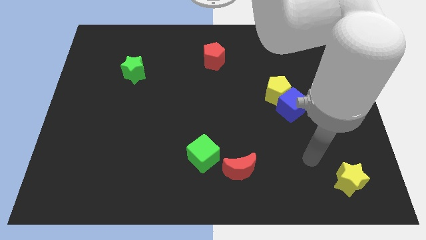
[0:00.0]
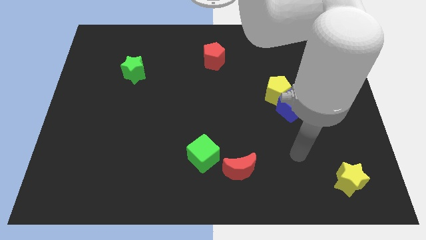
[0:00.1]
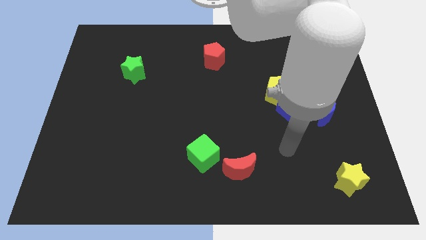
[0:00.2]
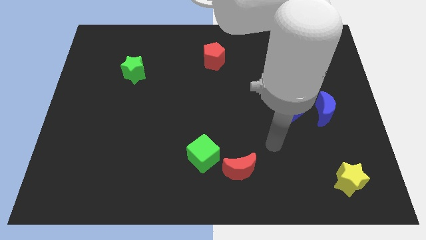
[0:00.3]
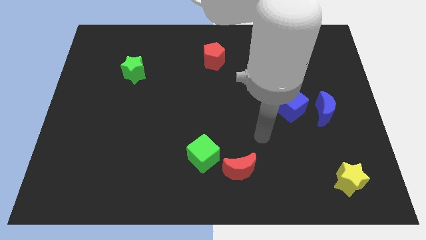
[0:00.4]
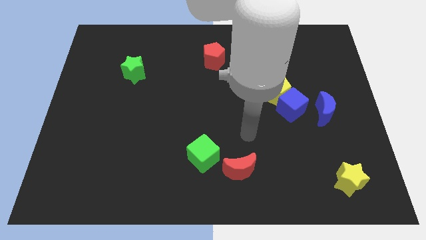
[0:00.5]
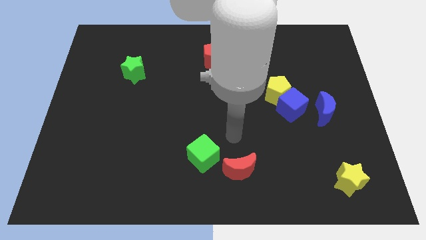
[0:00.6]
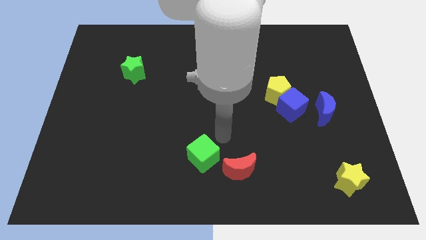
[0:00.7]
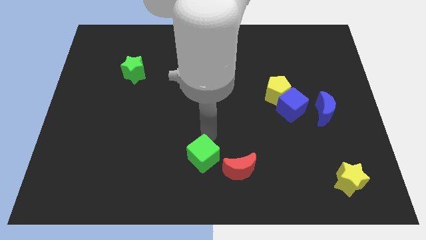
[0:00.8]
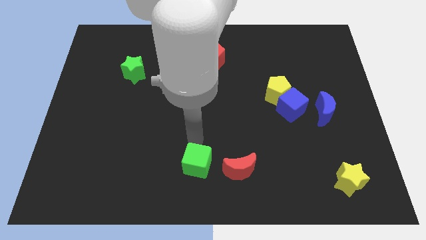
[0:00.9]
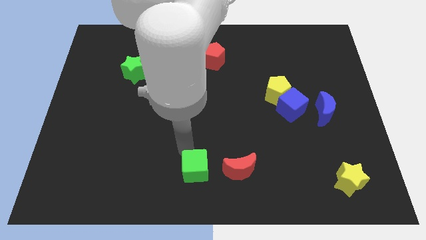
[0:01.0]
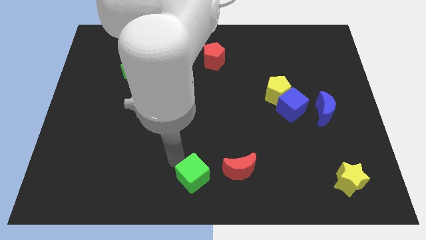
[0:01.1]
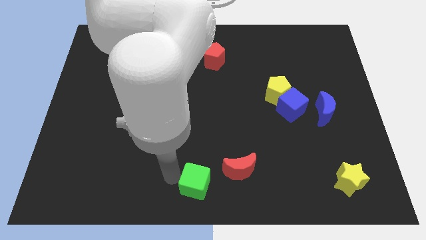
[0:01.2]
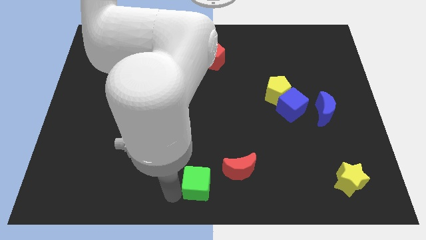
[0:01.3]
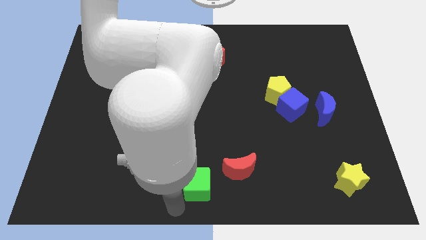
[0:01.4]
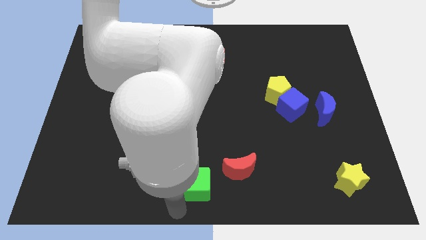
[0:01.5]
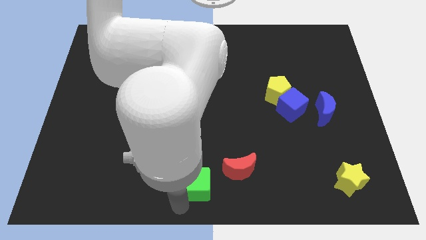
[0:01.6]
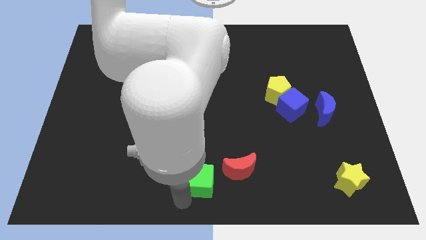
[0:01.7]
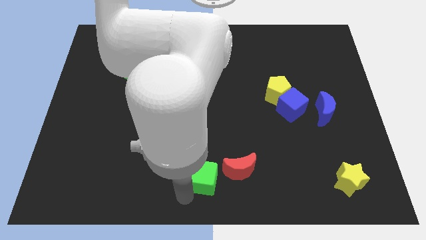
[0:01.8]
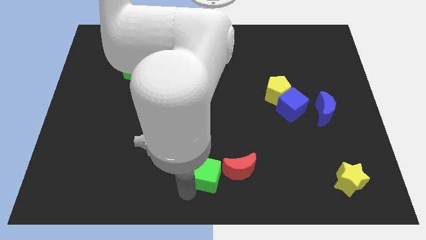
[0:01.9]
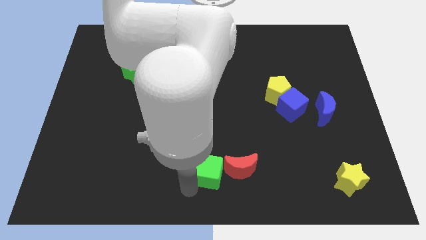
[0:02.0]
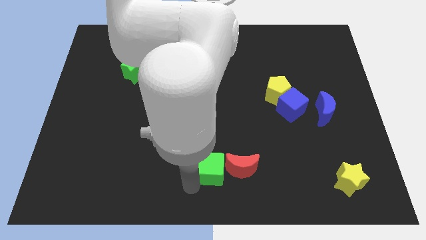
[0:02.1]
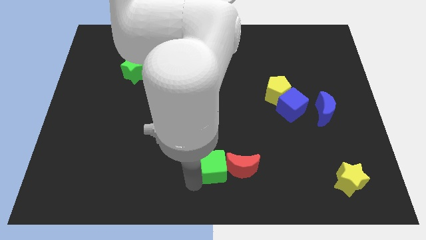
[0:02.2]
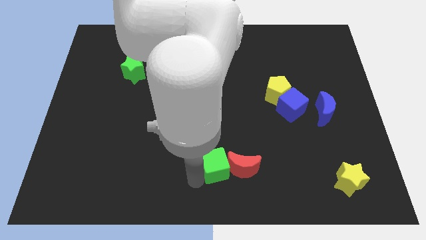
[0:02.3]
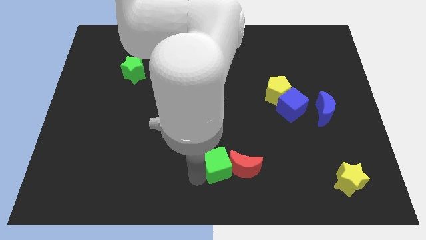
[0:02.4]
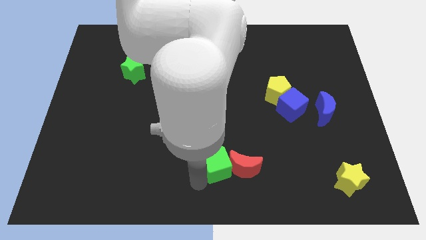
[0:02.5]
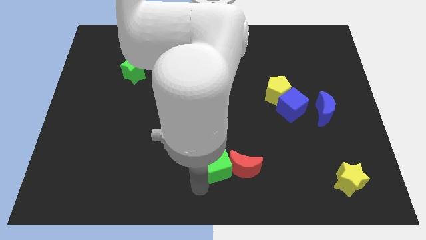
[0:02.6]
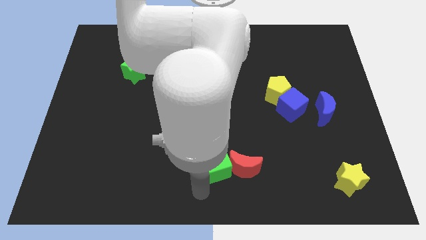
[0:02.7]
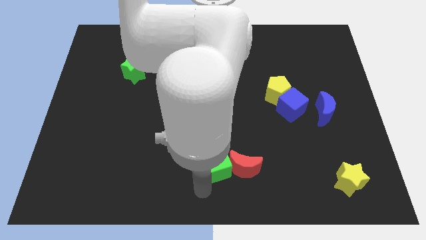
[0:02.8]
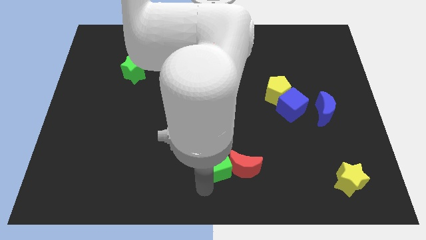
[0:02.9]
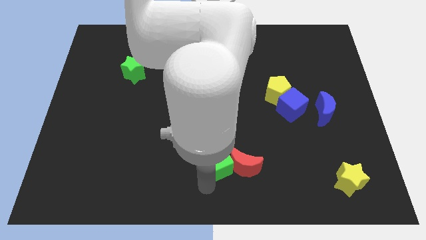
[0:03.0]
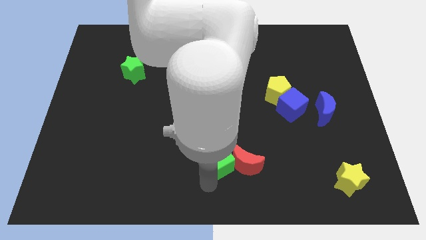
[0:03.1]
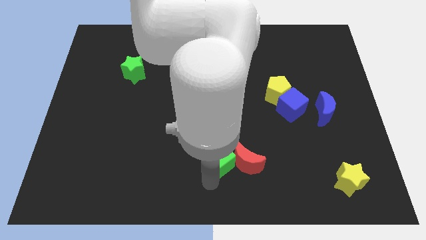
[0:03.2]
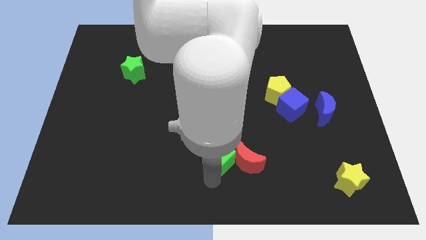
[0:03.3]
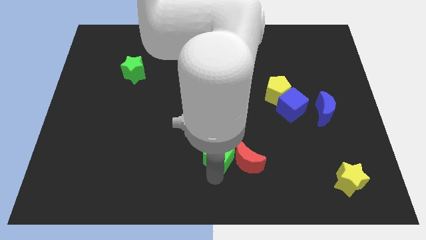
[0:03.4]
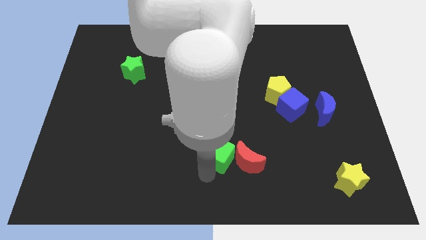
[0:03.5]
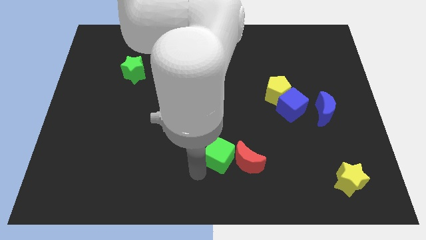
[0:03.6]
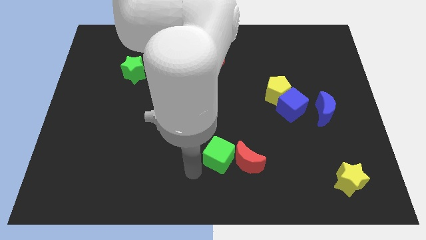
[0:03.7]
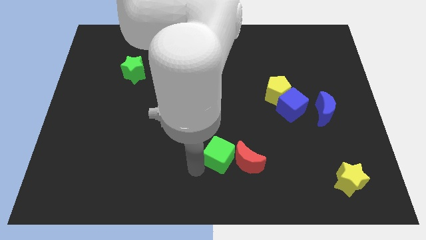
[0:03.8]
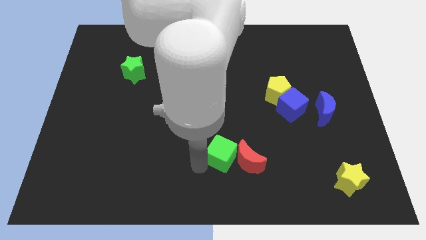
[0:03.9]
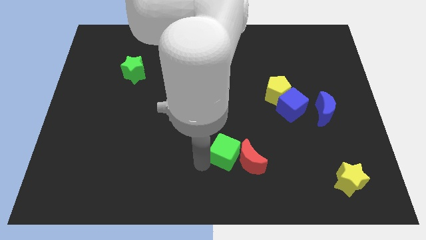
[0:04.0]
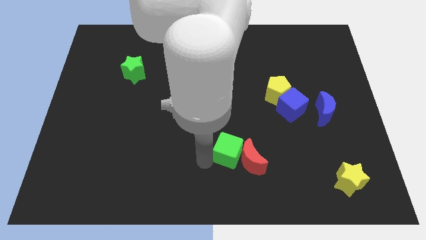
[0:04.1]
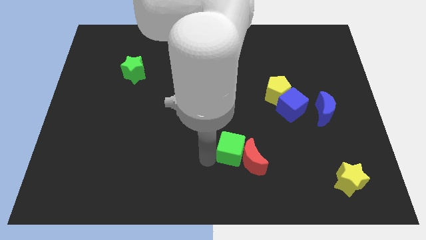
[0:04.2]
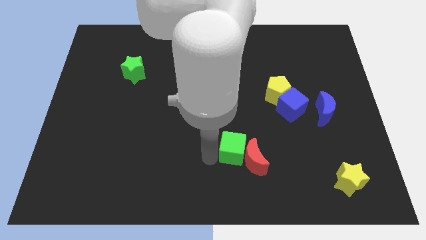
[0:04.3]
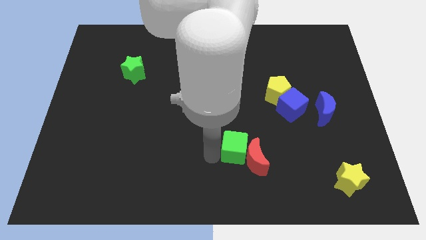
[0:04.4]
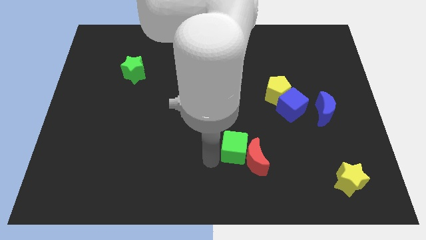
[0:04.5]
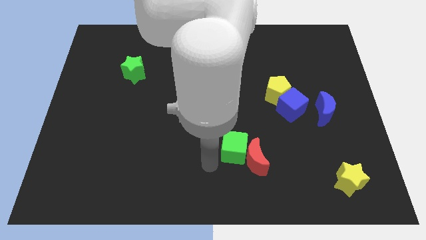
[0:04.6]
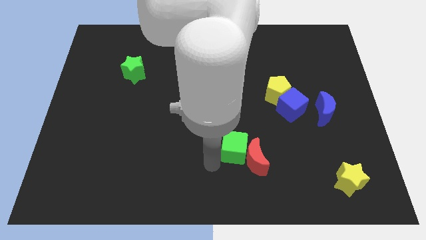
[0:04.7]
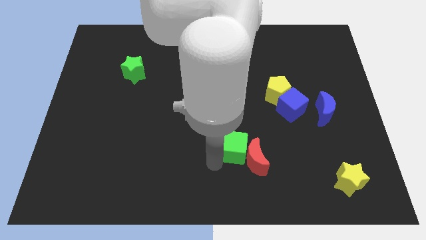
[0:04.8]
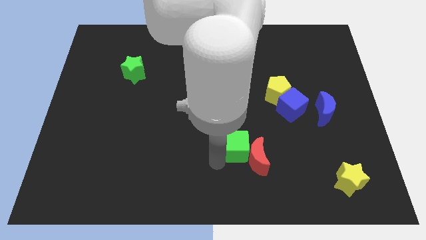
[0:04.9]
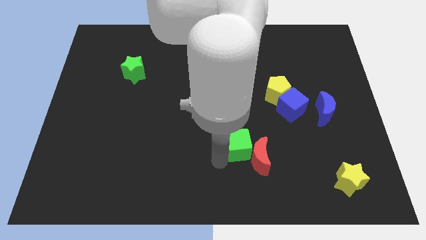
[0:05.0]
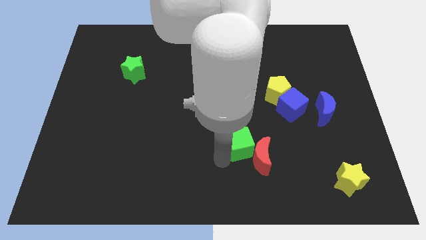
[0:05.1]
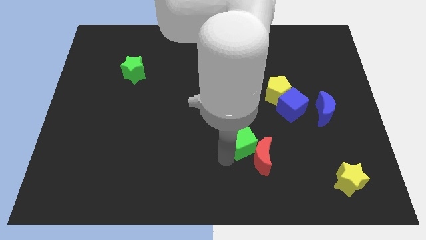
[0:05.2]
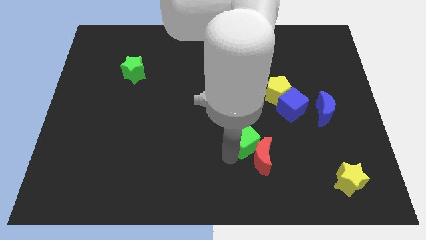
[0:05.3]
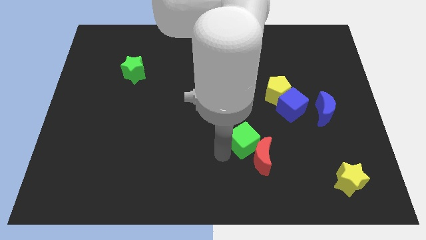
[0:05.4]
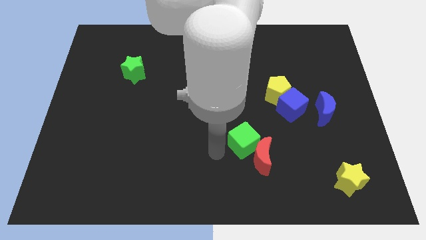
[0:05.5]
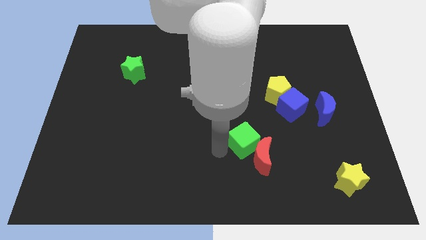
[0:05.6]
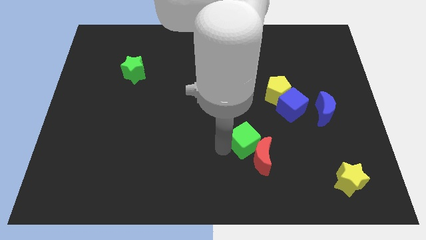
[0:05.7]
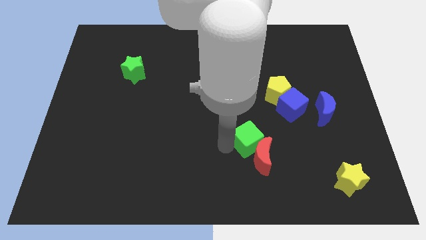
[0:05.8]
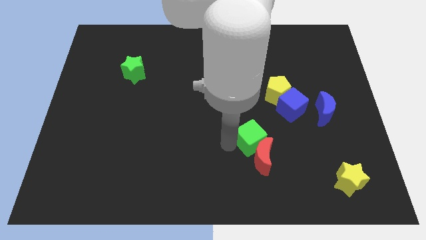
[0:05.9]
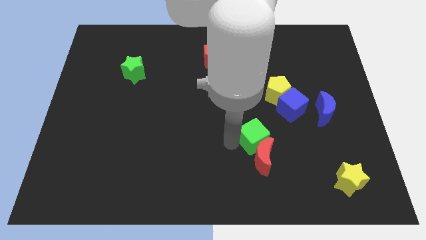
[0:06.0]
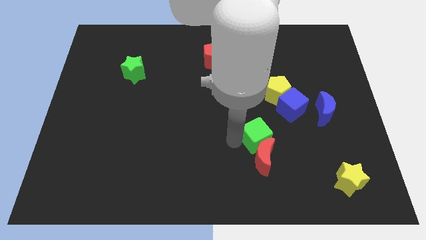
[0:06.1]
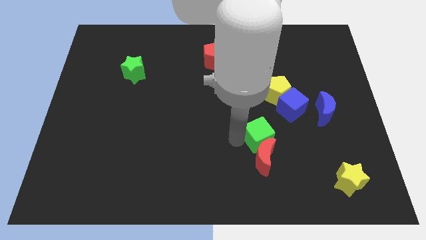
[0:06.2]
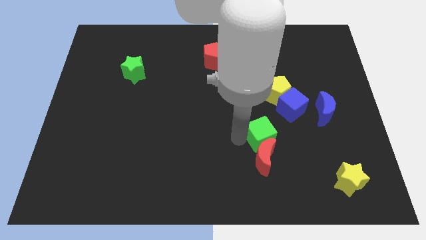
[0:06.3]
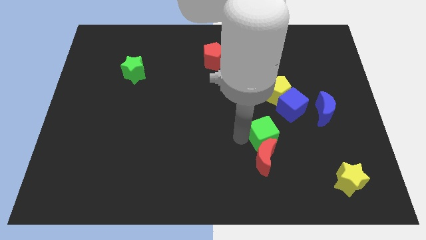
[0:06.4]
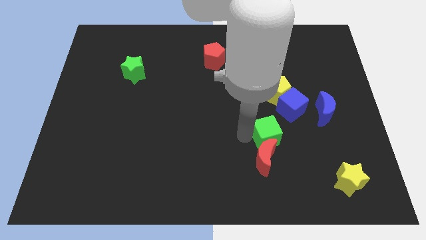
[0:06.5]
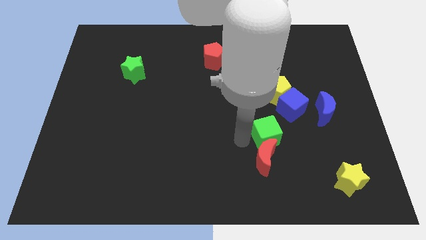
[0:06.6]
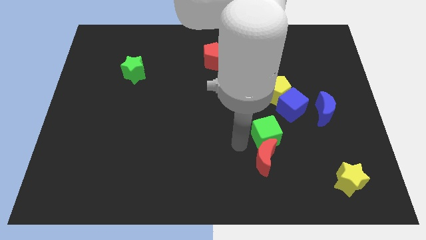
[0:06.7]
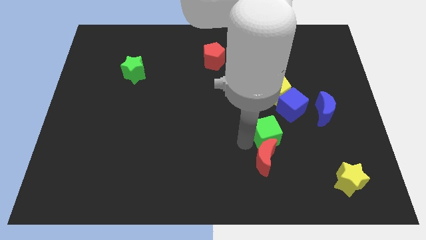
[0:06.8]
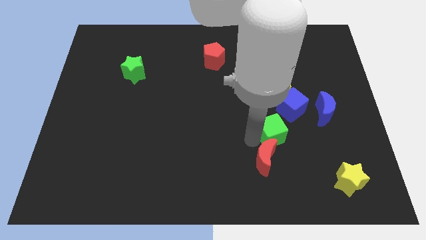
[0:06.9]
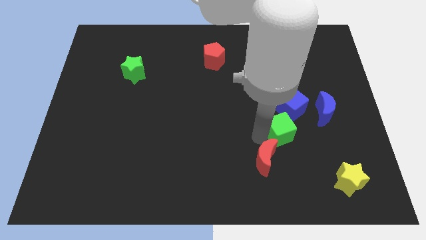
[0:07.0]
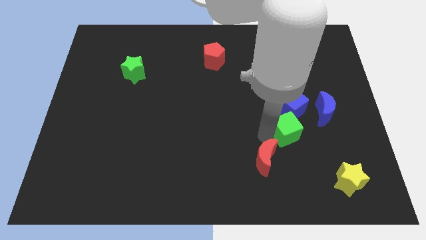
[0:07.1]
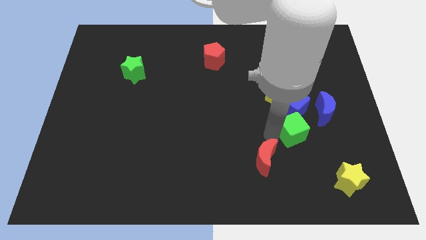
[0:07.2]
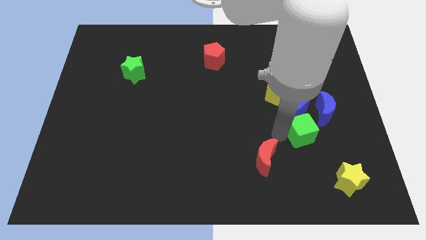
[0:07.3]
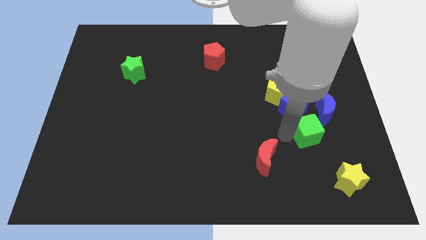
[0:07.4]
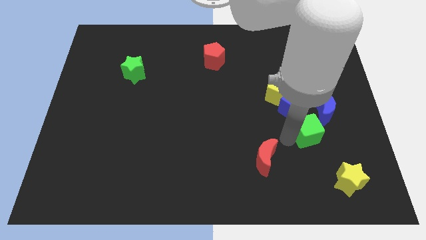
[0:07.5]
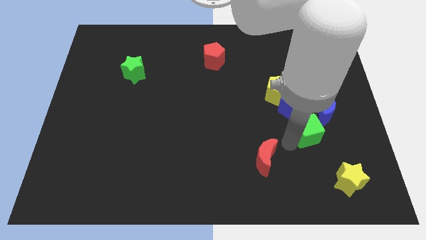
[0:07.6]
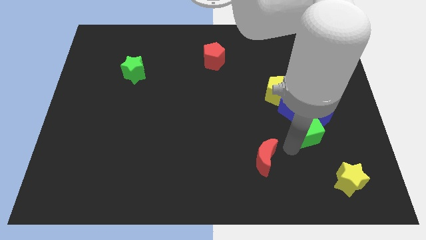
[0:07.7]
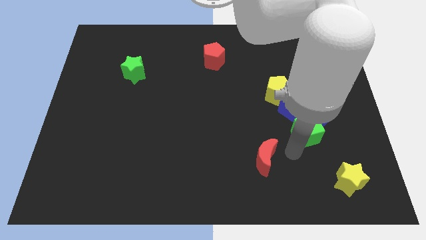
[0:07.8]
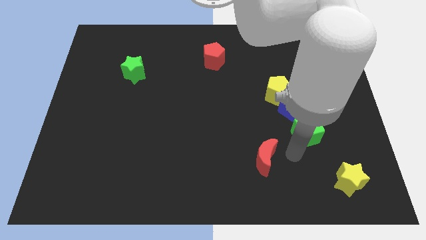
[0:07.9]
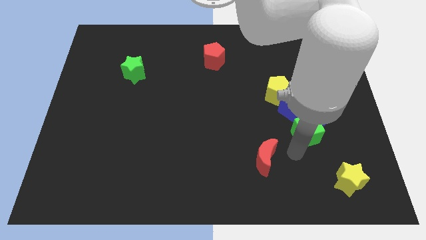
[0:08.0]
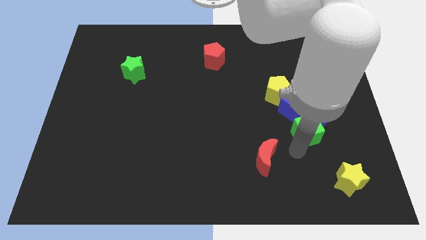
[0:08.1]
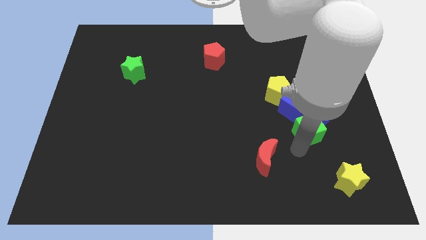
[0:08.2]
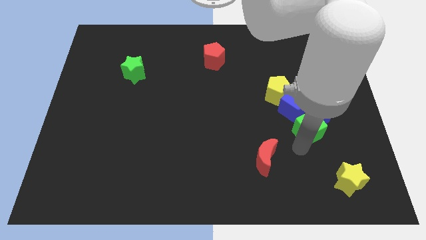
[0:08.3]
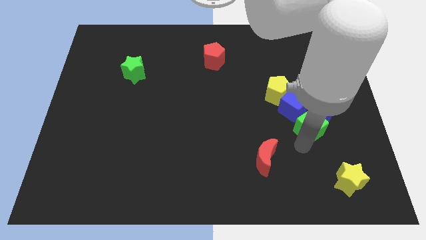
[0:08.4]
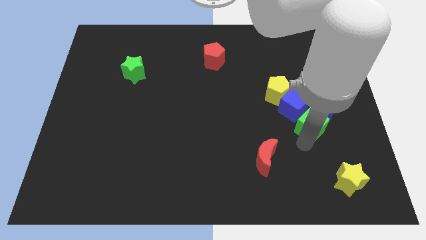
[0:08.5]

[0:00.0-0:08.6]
slide the green cube to the blue moon
